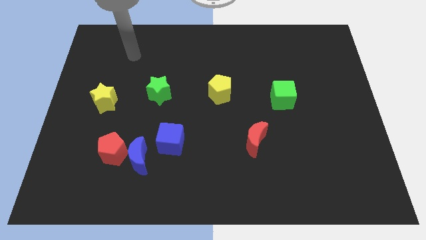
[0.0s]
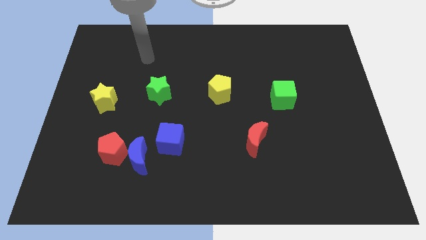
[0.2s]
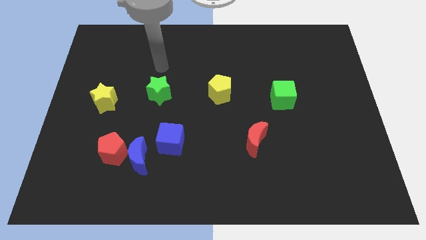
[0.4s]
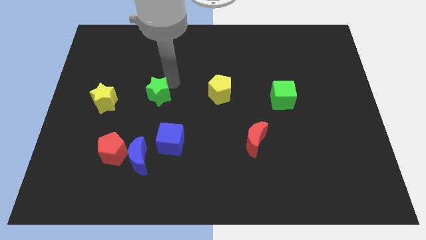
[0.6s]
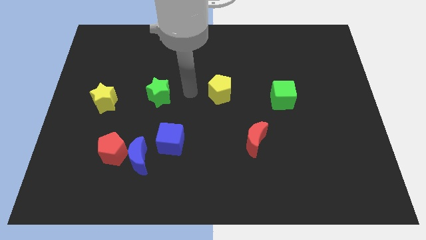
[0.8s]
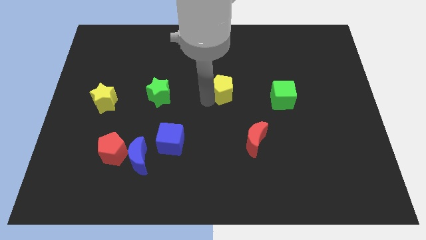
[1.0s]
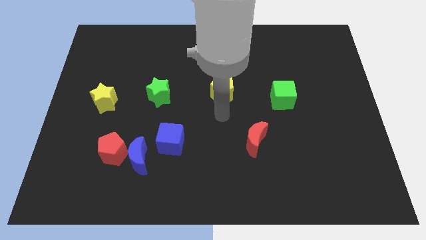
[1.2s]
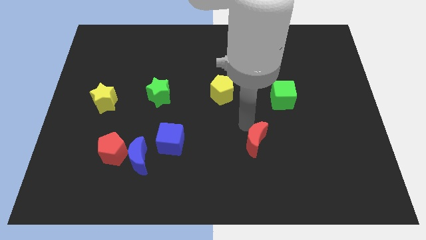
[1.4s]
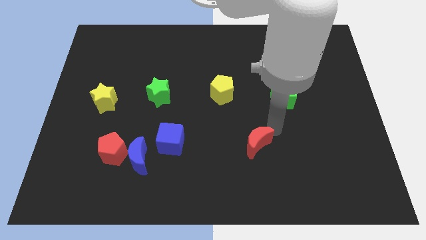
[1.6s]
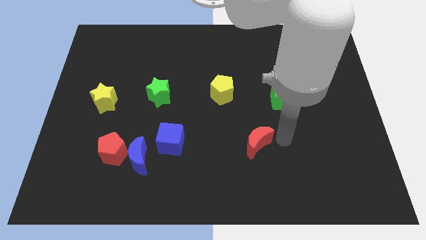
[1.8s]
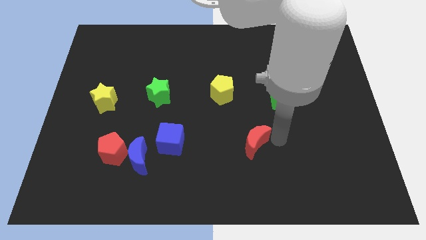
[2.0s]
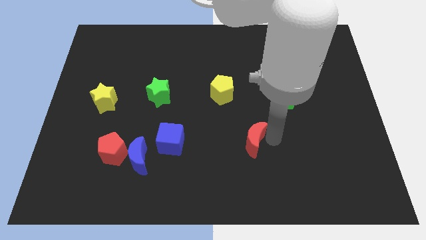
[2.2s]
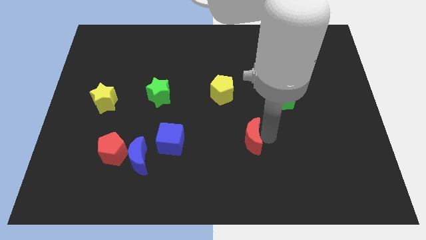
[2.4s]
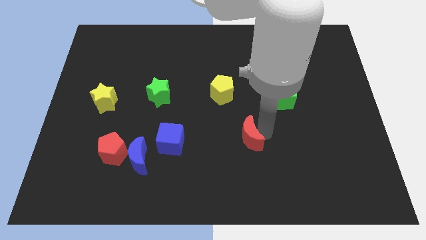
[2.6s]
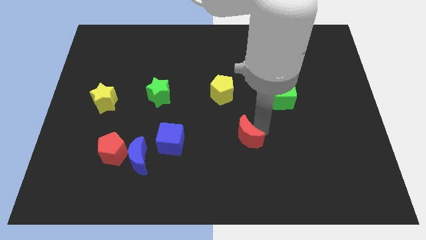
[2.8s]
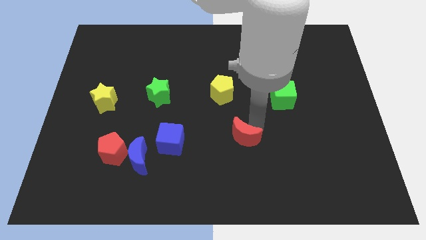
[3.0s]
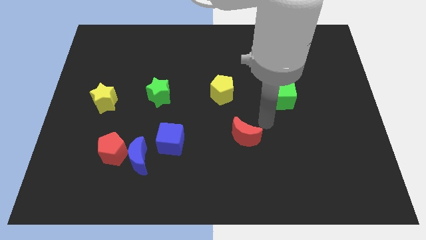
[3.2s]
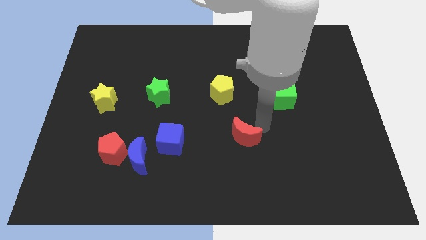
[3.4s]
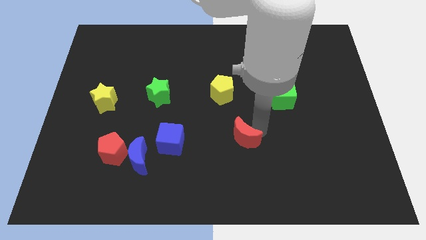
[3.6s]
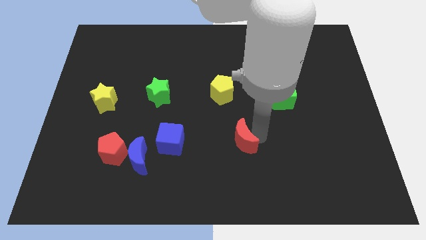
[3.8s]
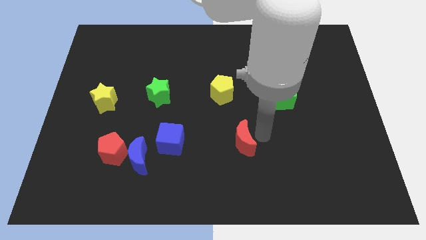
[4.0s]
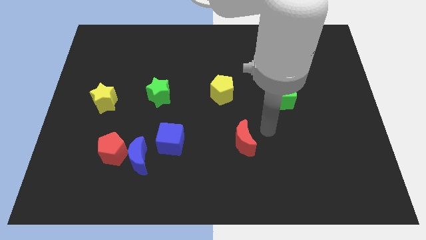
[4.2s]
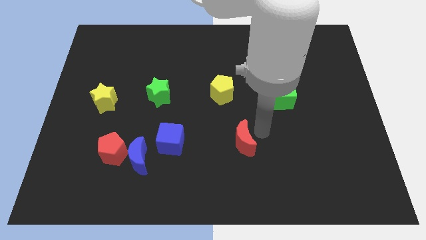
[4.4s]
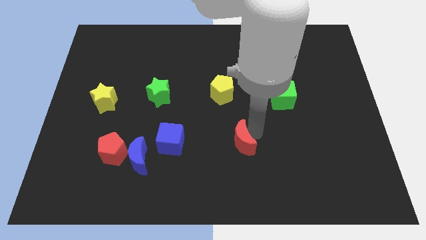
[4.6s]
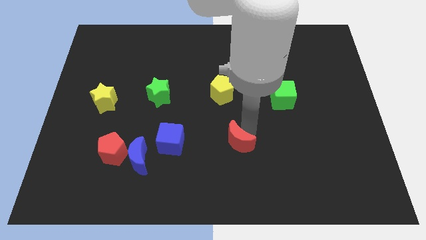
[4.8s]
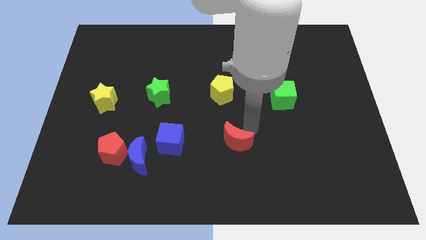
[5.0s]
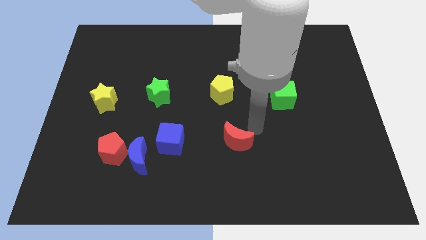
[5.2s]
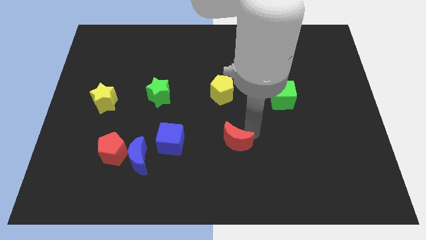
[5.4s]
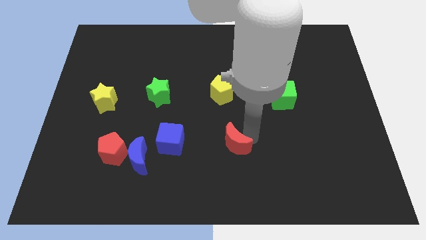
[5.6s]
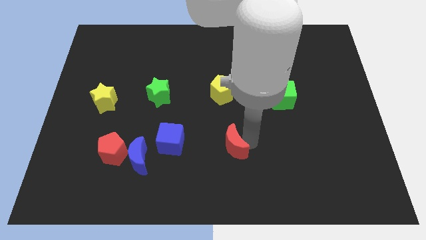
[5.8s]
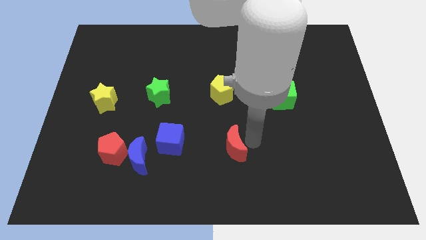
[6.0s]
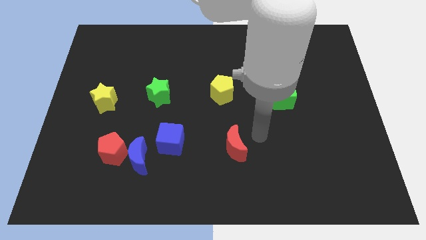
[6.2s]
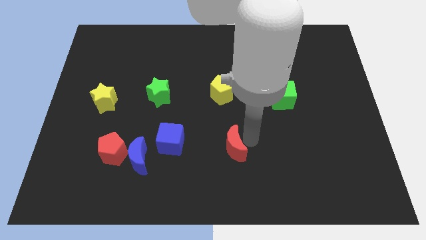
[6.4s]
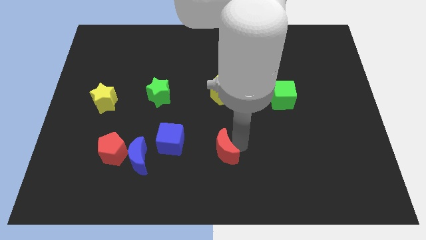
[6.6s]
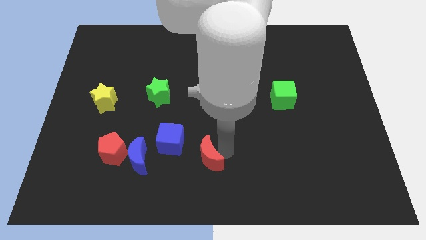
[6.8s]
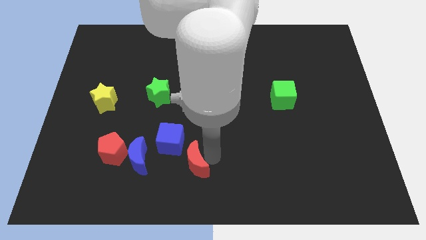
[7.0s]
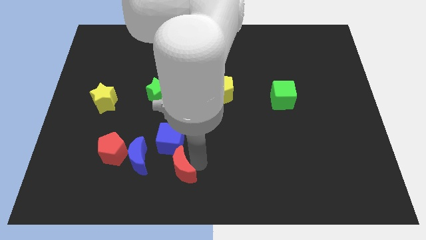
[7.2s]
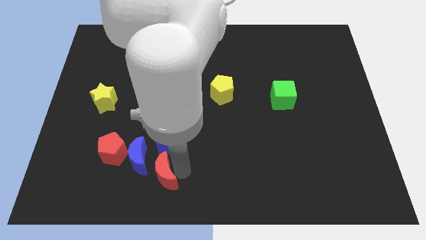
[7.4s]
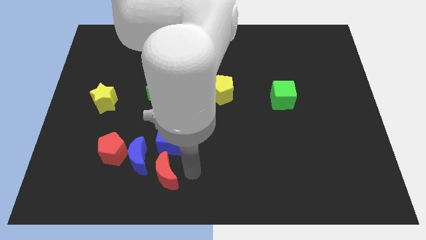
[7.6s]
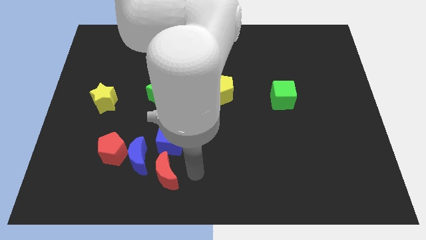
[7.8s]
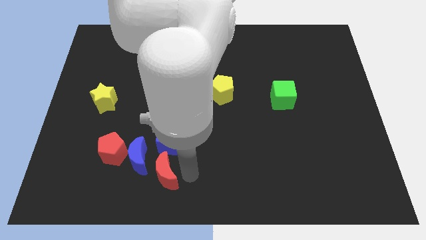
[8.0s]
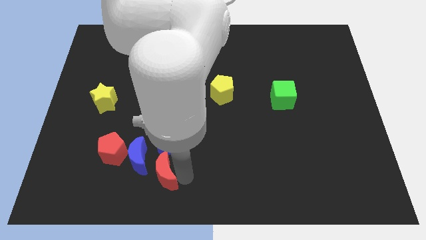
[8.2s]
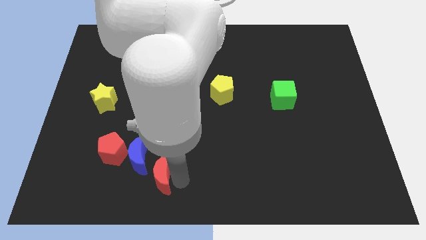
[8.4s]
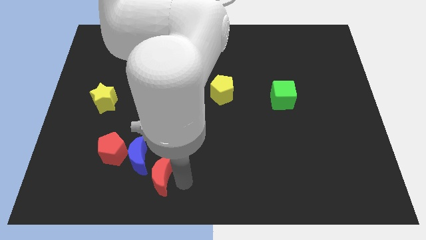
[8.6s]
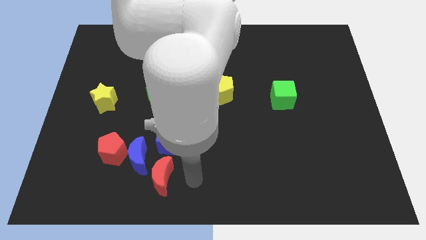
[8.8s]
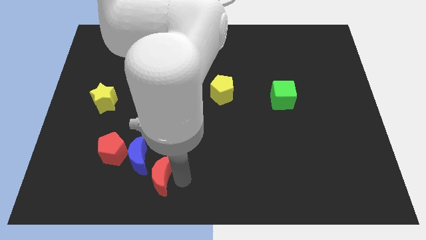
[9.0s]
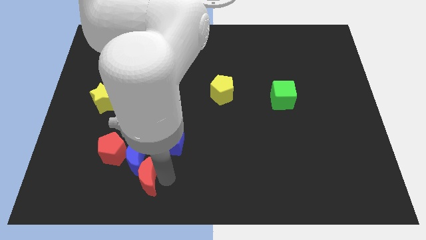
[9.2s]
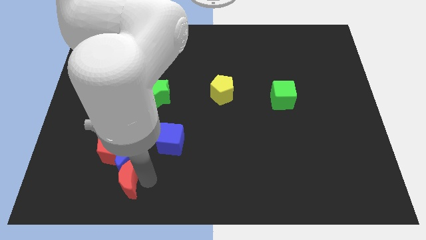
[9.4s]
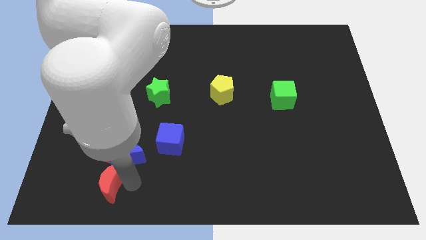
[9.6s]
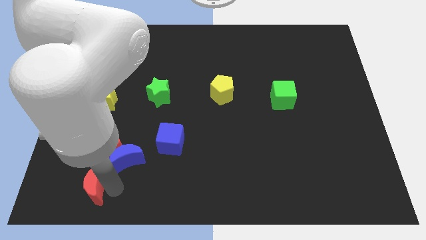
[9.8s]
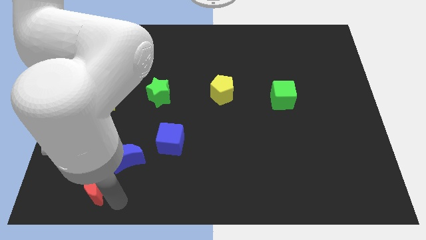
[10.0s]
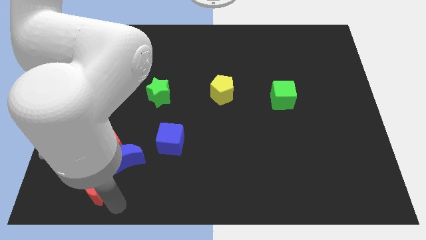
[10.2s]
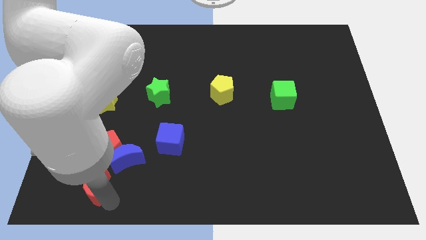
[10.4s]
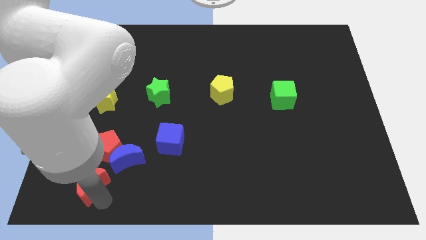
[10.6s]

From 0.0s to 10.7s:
slide the red moon diagonally down and to the left of the red pentagon
